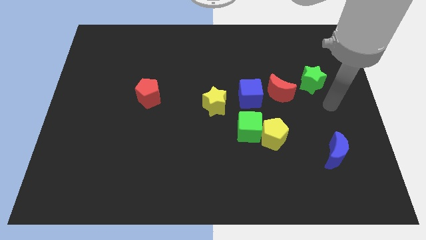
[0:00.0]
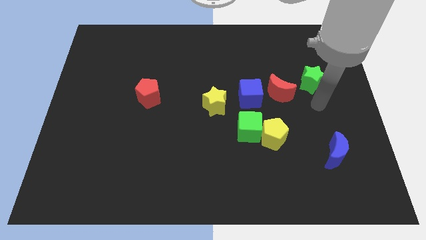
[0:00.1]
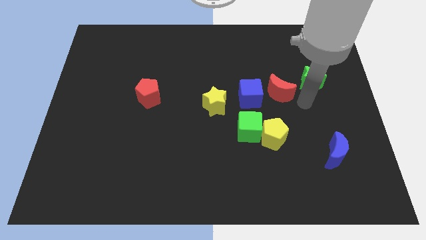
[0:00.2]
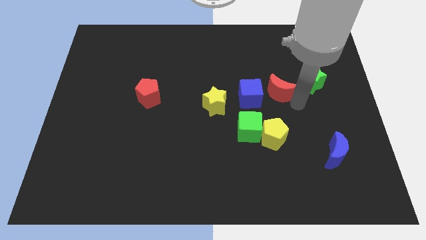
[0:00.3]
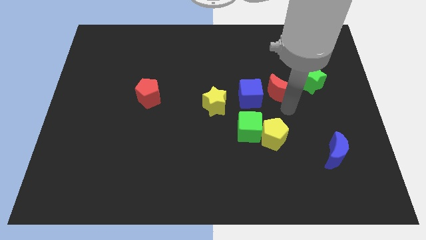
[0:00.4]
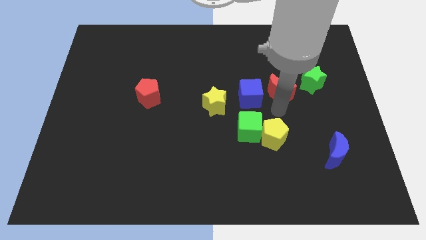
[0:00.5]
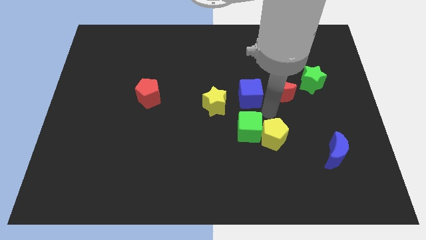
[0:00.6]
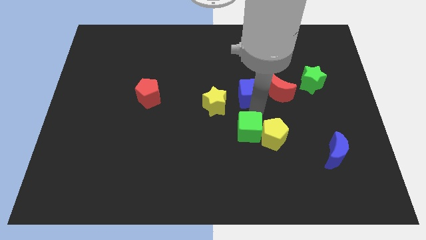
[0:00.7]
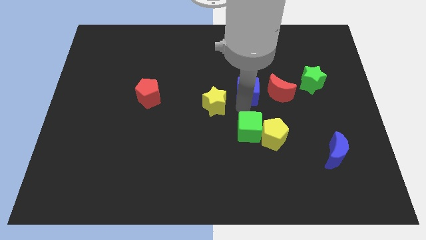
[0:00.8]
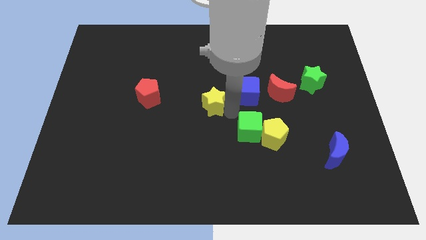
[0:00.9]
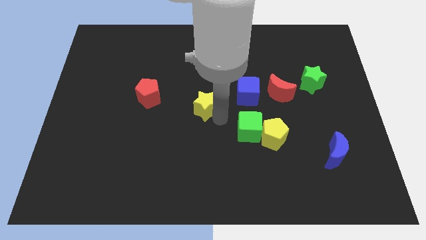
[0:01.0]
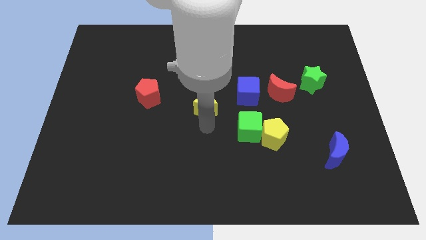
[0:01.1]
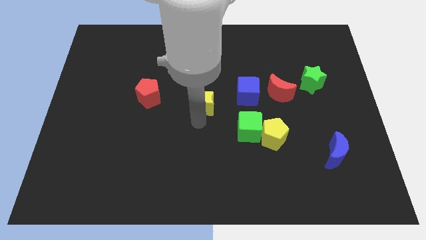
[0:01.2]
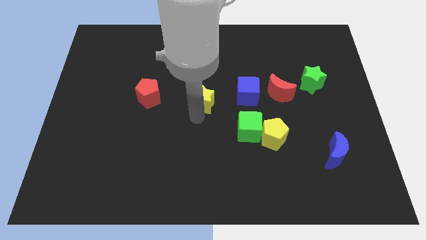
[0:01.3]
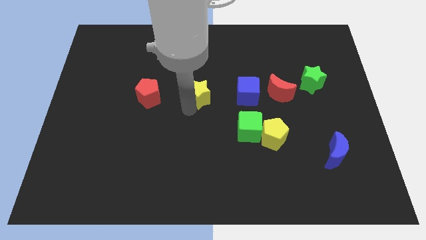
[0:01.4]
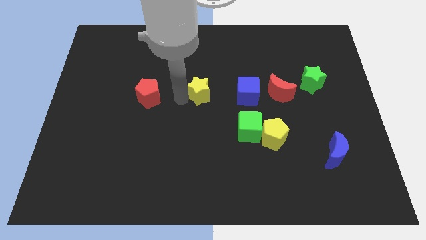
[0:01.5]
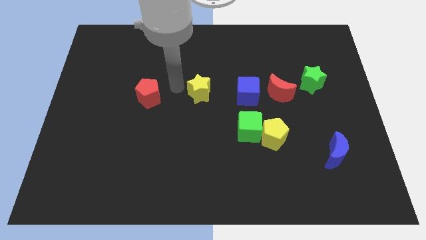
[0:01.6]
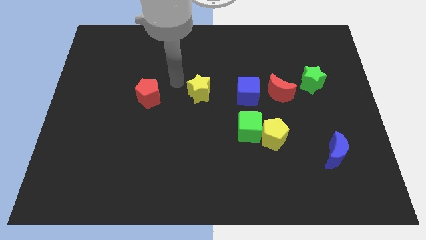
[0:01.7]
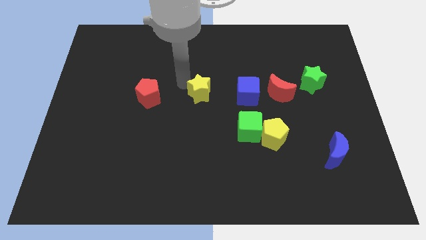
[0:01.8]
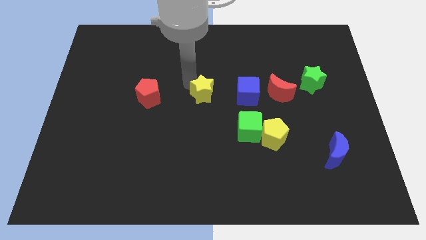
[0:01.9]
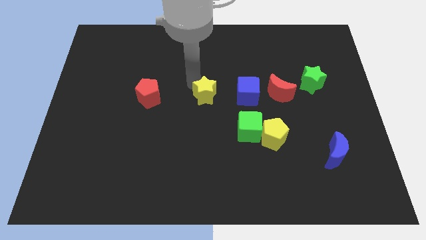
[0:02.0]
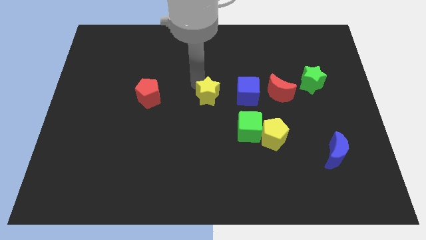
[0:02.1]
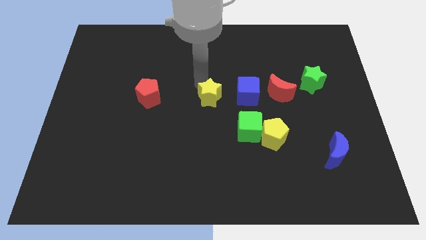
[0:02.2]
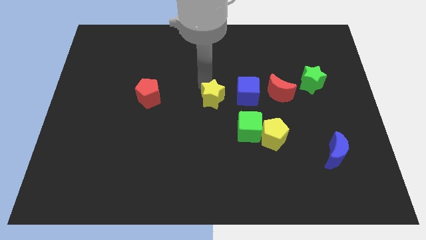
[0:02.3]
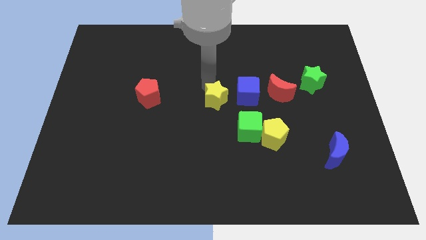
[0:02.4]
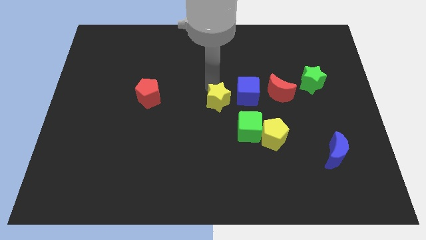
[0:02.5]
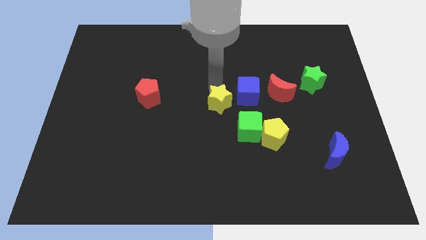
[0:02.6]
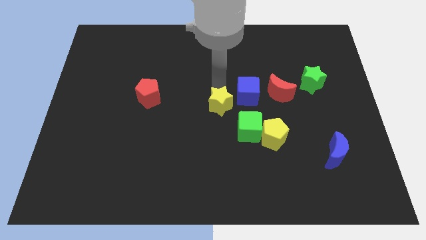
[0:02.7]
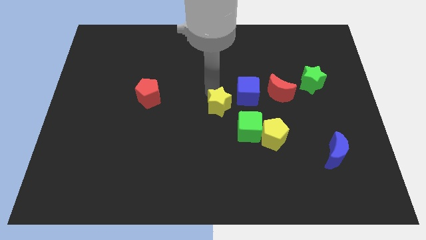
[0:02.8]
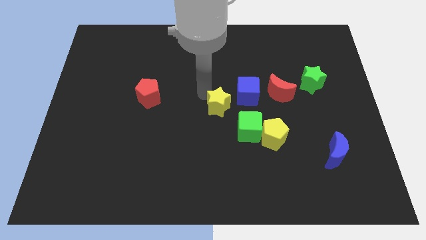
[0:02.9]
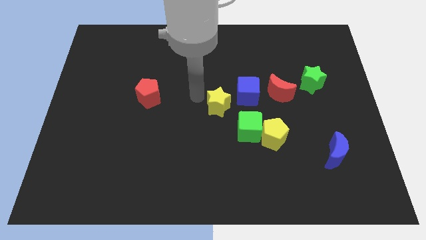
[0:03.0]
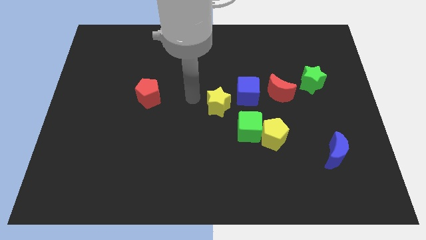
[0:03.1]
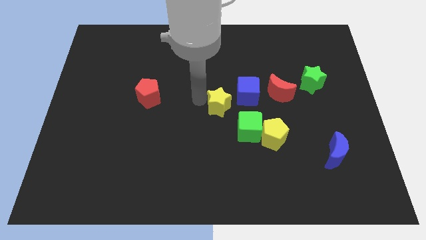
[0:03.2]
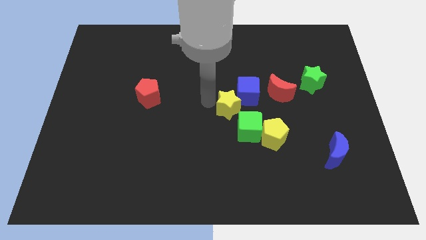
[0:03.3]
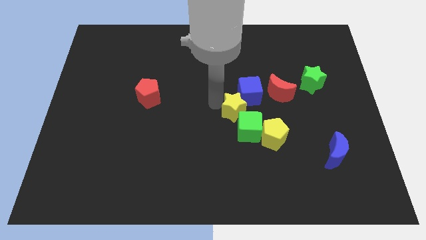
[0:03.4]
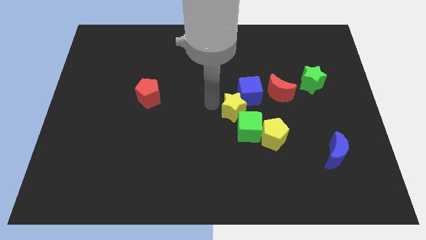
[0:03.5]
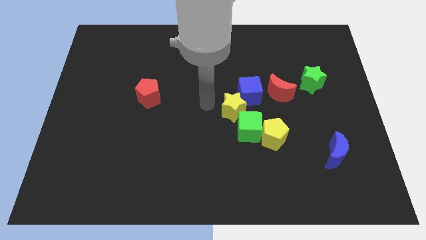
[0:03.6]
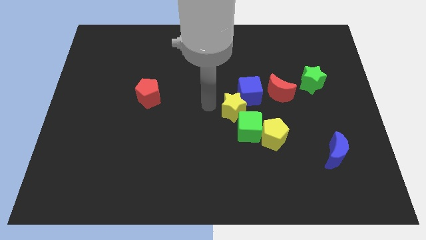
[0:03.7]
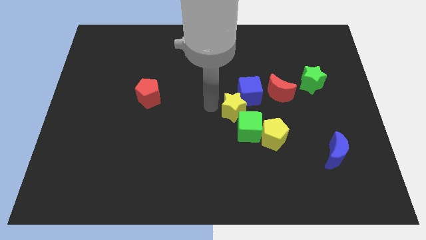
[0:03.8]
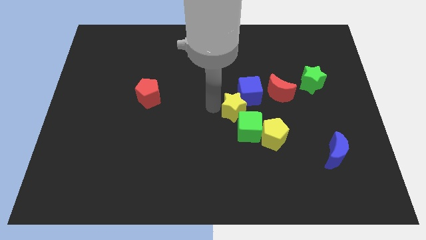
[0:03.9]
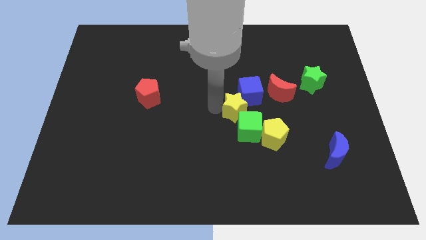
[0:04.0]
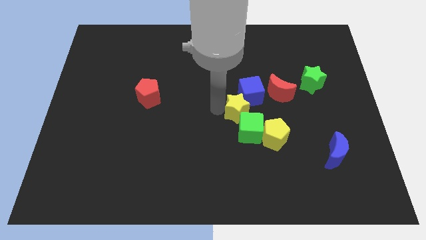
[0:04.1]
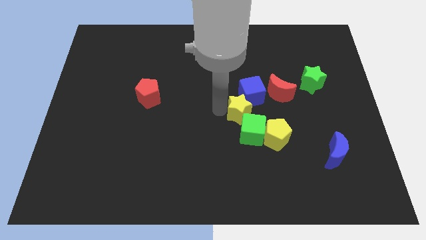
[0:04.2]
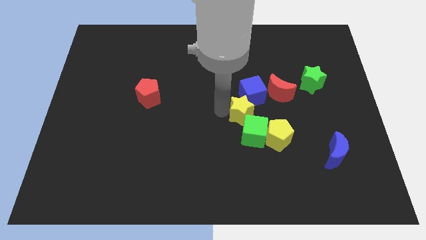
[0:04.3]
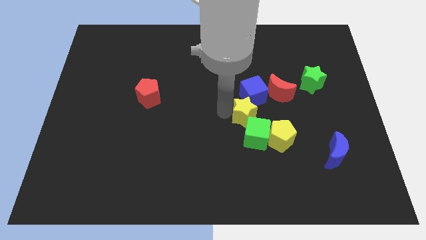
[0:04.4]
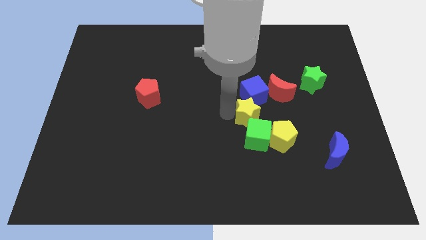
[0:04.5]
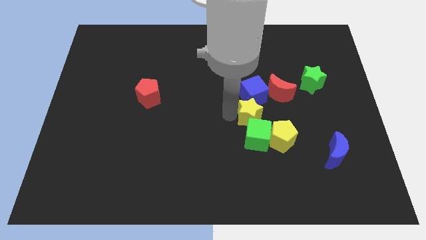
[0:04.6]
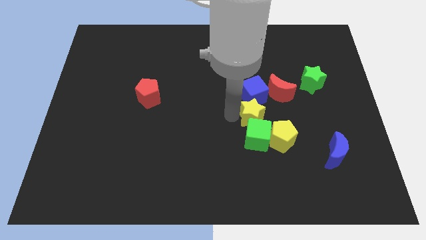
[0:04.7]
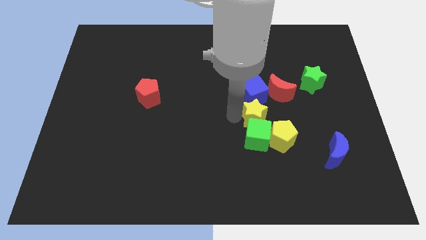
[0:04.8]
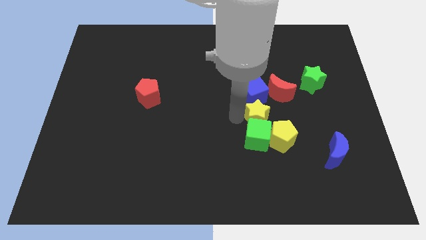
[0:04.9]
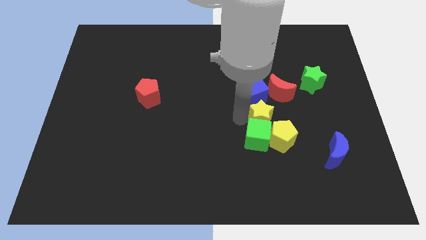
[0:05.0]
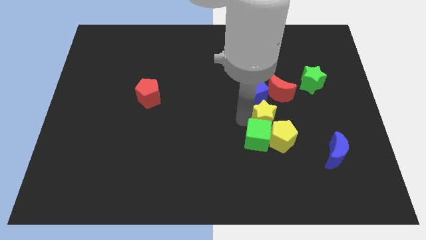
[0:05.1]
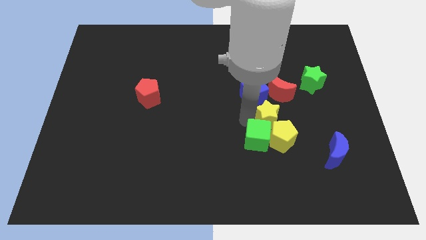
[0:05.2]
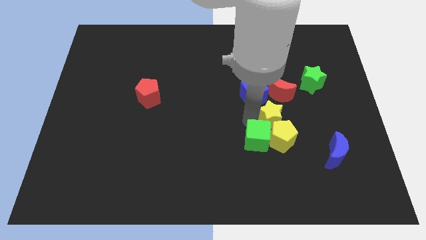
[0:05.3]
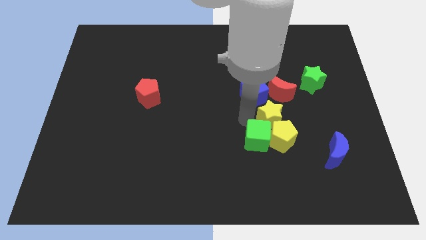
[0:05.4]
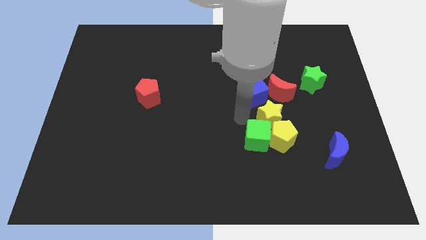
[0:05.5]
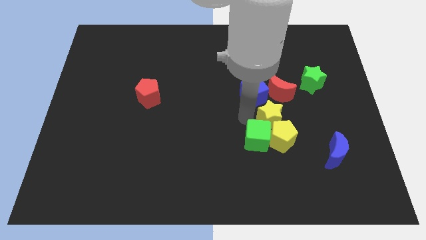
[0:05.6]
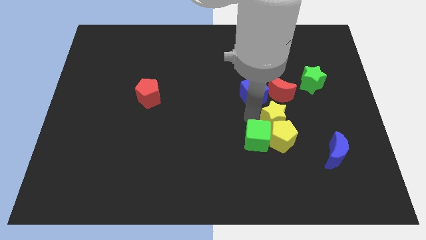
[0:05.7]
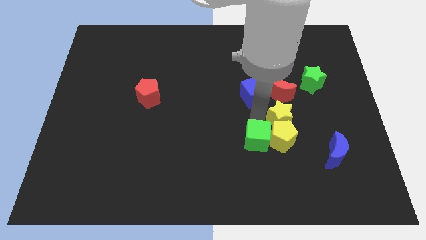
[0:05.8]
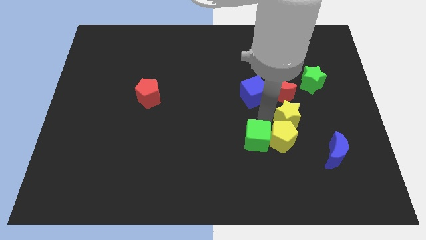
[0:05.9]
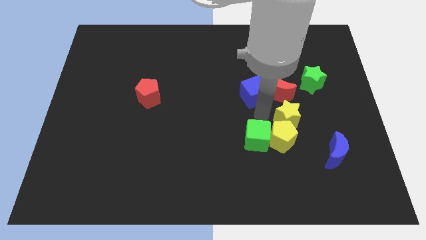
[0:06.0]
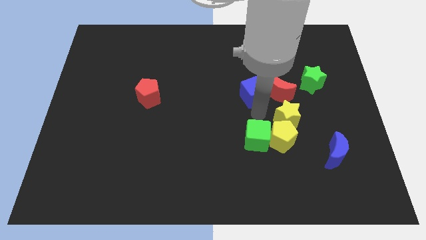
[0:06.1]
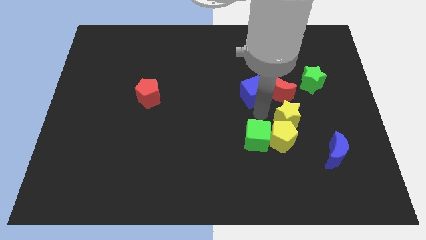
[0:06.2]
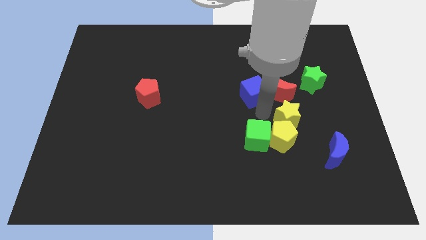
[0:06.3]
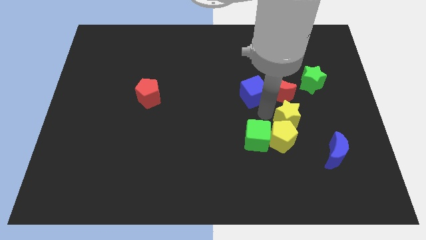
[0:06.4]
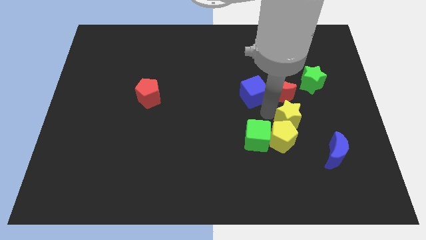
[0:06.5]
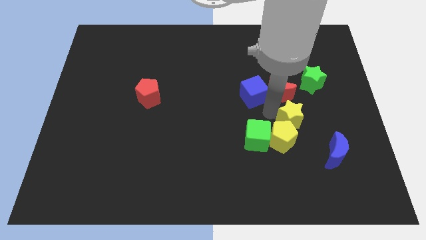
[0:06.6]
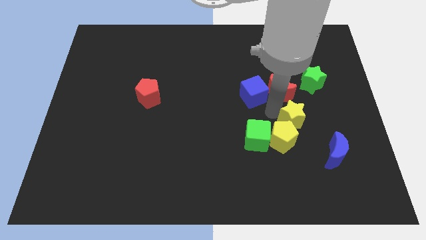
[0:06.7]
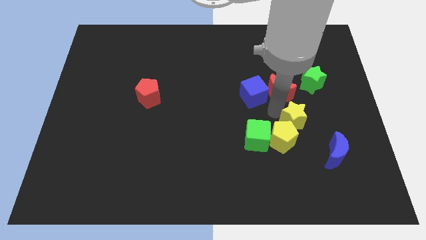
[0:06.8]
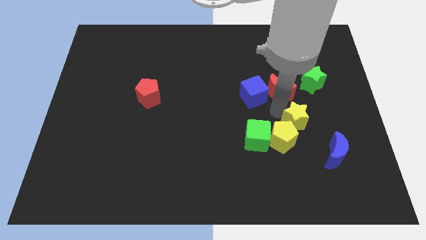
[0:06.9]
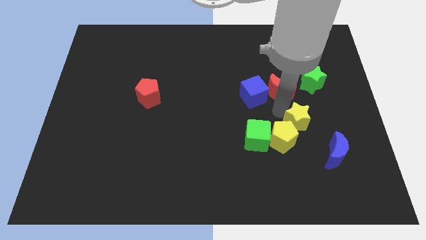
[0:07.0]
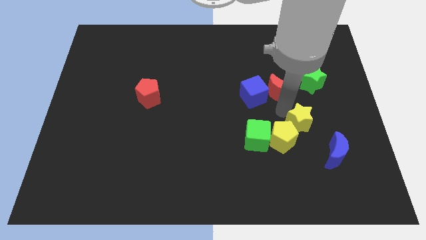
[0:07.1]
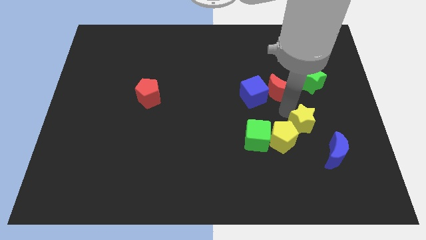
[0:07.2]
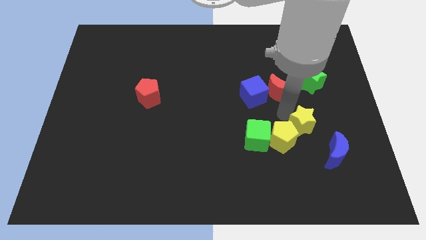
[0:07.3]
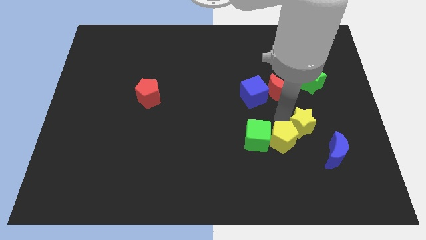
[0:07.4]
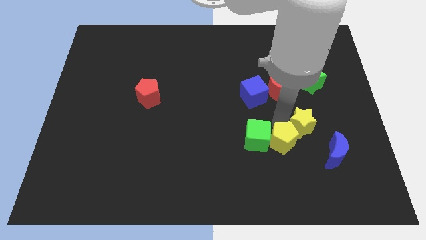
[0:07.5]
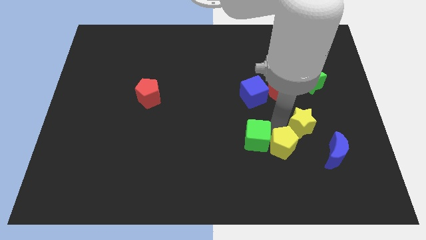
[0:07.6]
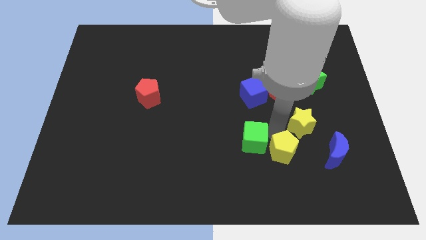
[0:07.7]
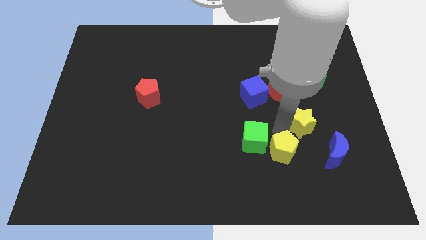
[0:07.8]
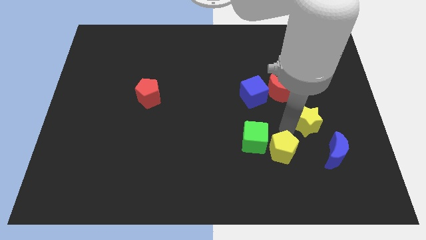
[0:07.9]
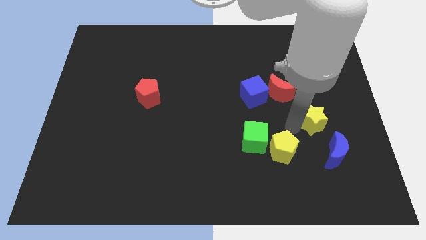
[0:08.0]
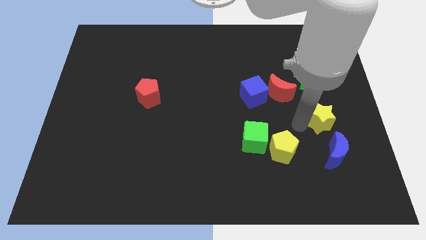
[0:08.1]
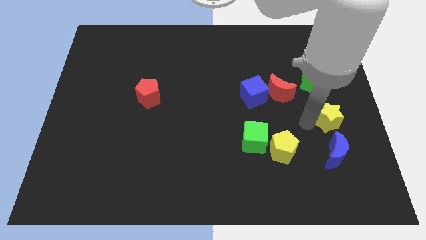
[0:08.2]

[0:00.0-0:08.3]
push the yellow star to the center right
